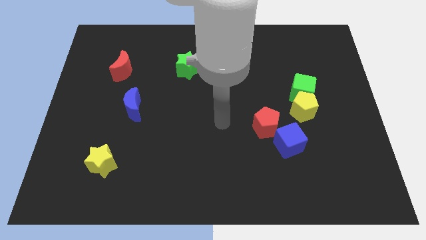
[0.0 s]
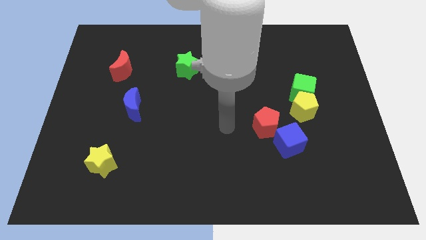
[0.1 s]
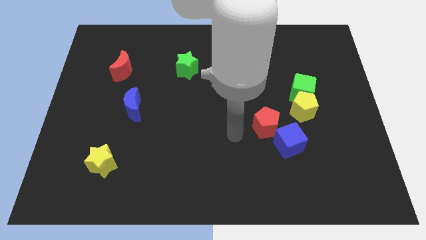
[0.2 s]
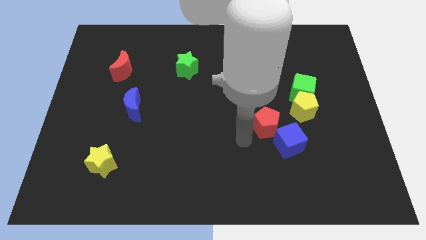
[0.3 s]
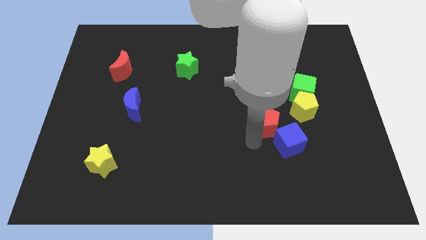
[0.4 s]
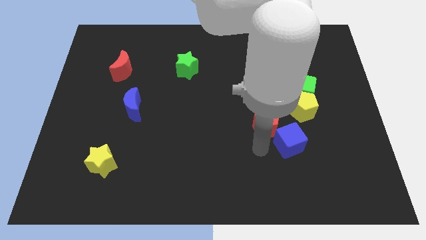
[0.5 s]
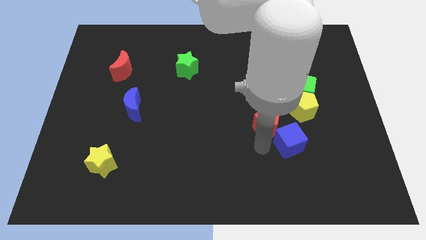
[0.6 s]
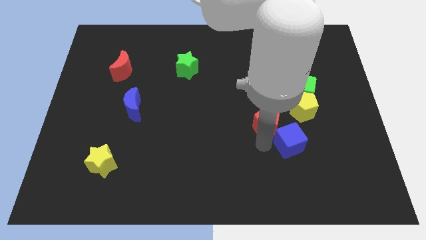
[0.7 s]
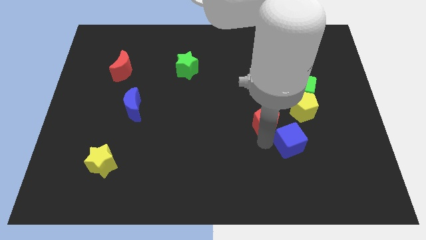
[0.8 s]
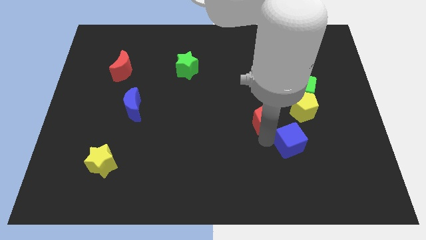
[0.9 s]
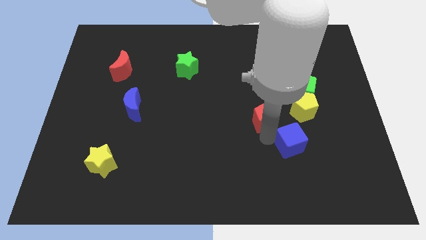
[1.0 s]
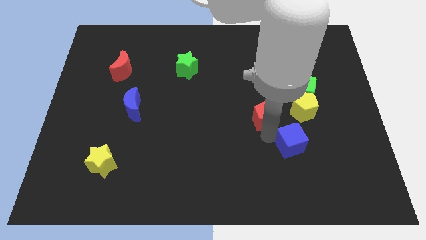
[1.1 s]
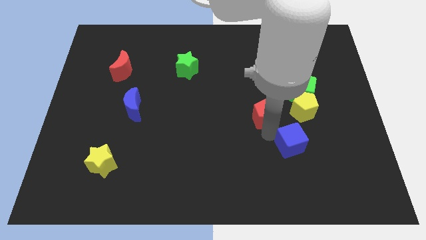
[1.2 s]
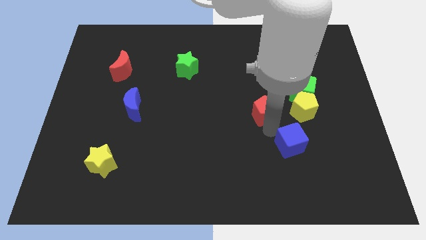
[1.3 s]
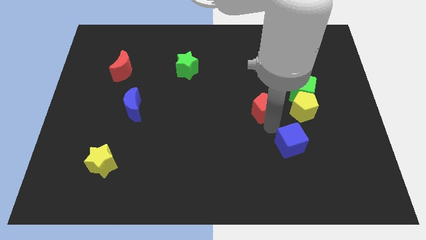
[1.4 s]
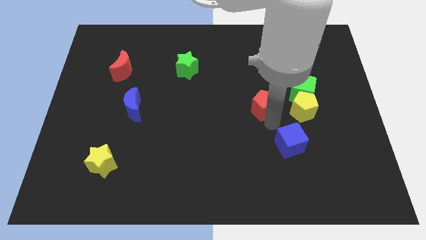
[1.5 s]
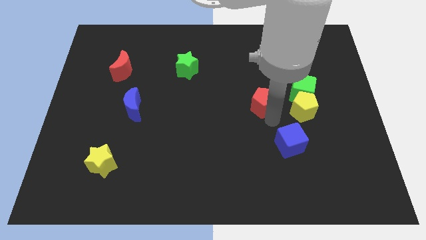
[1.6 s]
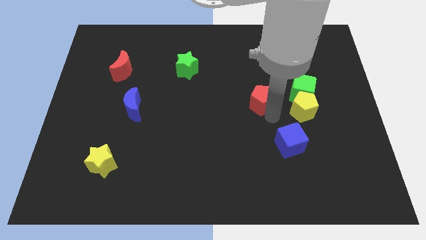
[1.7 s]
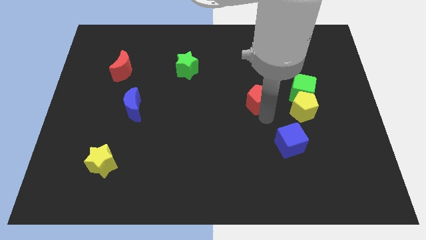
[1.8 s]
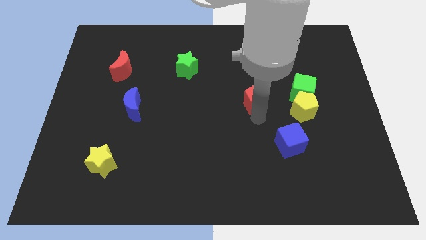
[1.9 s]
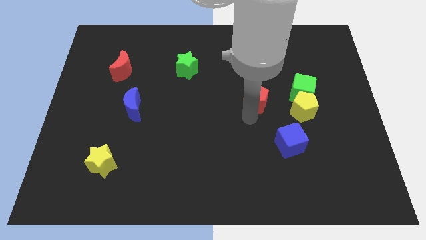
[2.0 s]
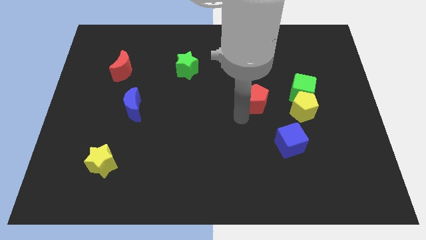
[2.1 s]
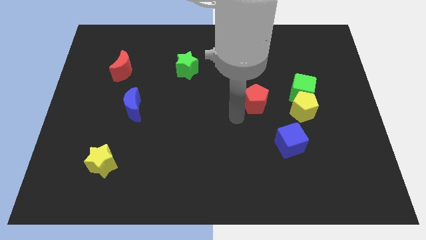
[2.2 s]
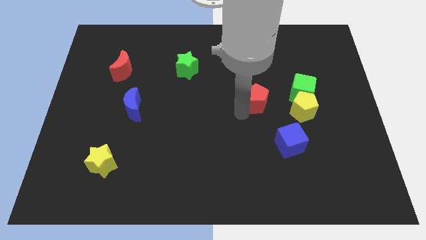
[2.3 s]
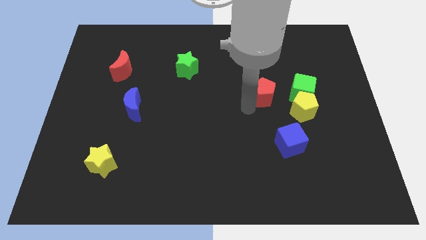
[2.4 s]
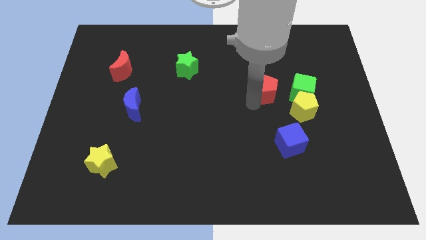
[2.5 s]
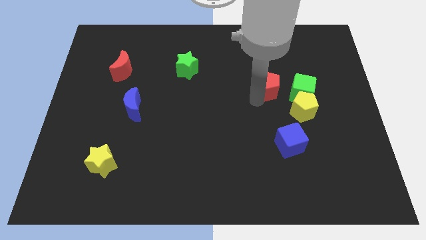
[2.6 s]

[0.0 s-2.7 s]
slide the red pentagon diagonally upwards and to the right somewhat

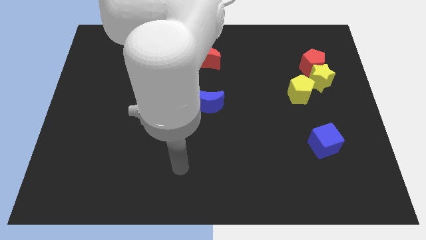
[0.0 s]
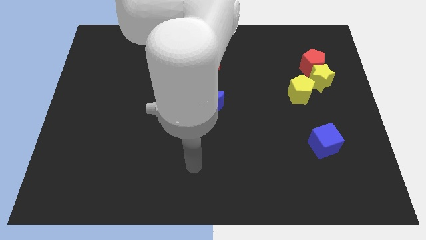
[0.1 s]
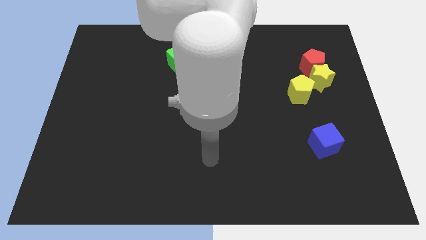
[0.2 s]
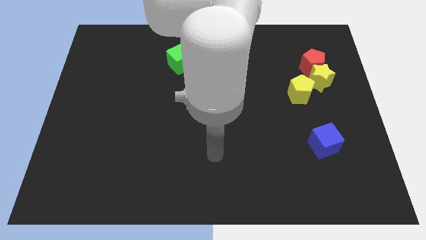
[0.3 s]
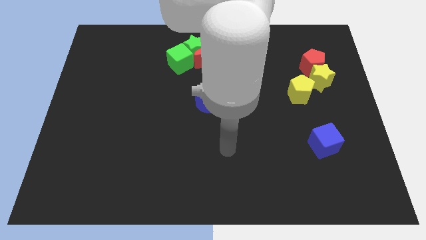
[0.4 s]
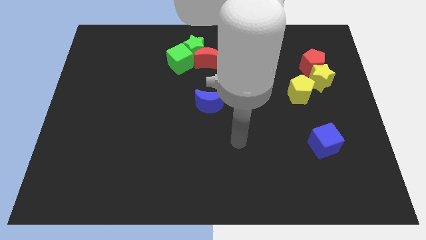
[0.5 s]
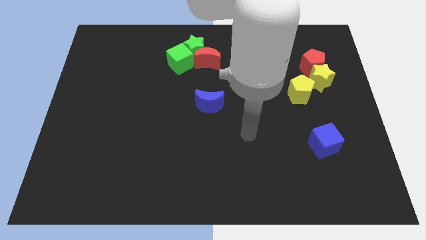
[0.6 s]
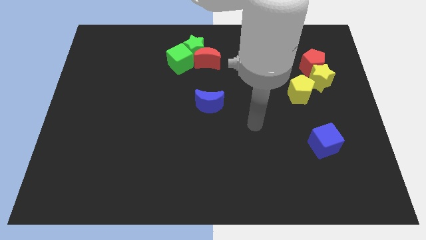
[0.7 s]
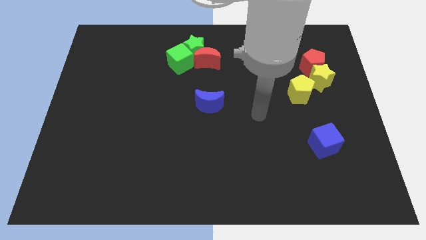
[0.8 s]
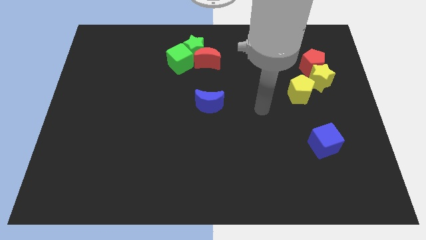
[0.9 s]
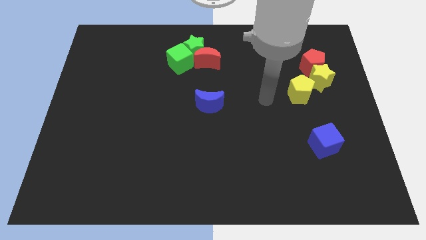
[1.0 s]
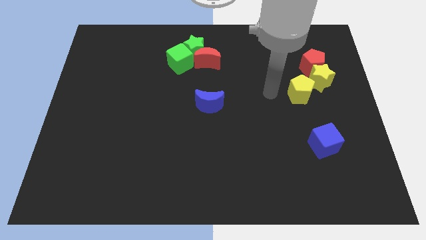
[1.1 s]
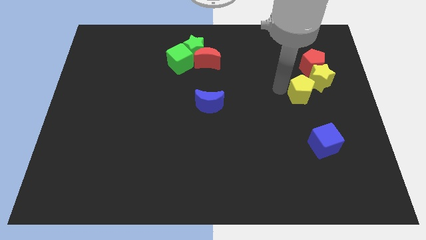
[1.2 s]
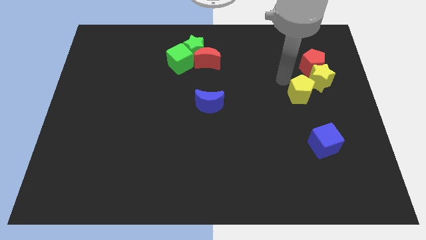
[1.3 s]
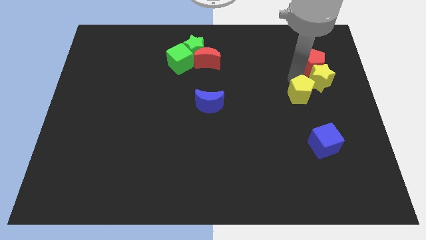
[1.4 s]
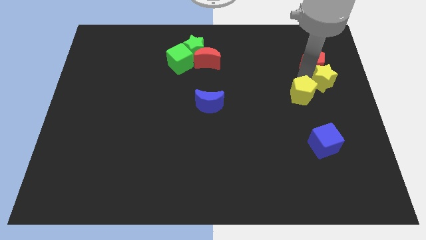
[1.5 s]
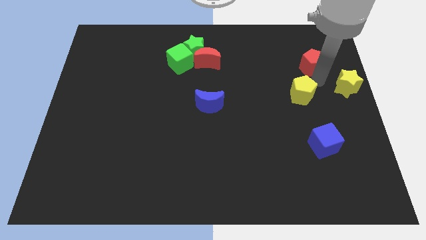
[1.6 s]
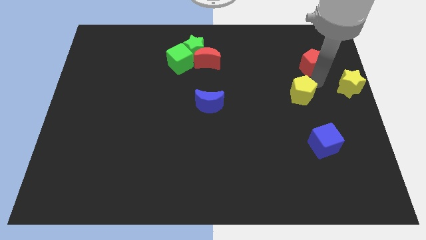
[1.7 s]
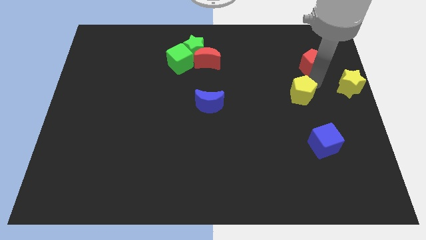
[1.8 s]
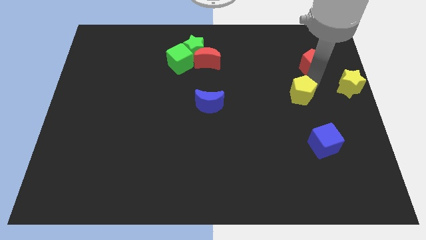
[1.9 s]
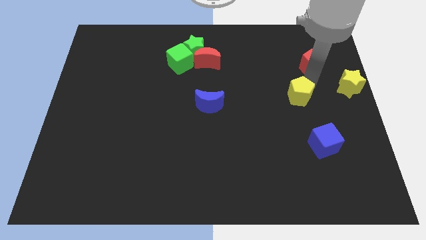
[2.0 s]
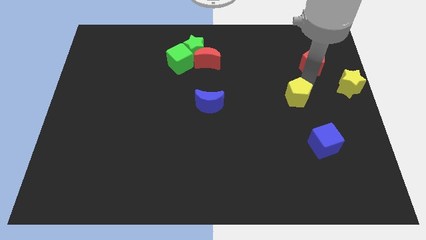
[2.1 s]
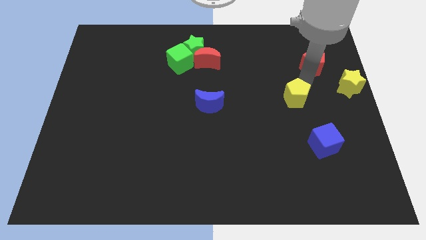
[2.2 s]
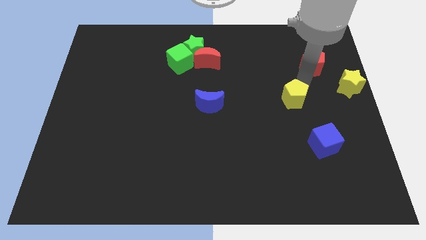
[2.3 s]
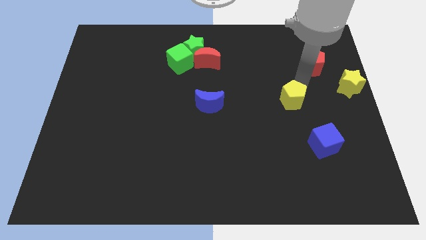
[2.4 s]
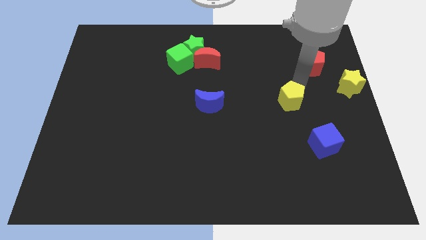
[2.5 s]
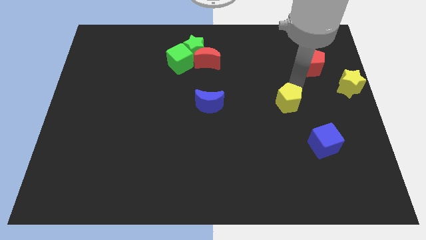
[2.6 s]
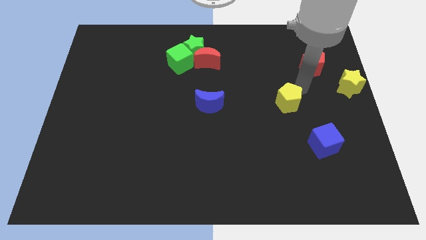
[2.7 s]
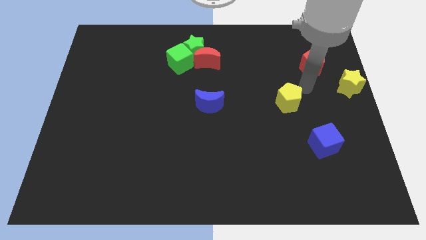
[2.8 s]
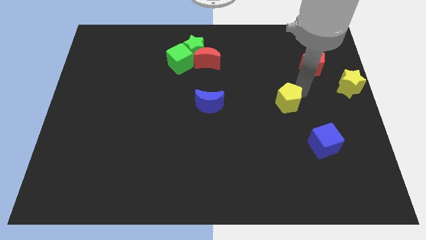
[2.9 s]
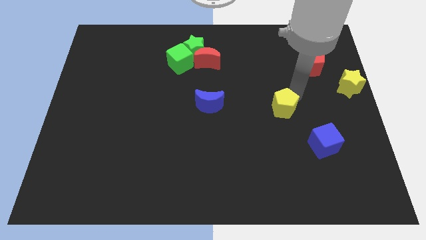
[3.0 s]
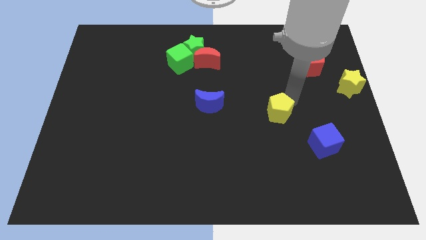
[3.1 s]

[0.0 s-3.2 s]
slide the yellow pentagon down and left slightly

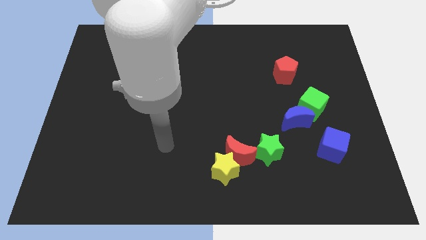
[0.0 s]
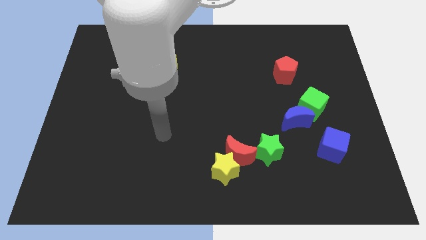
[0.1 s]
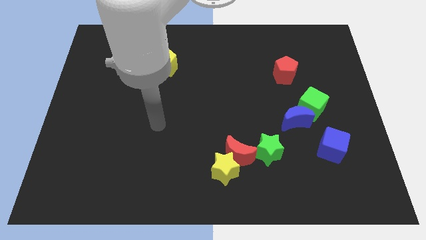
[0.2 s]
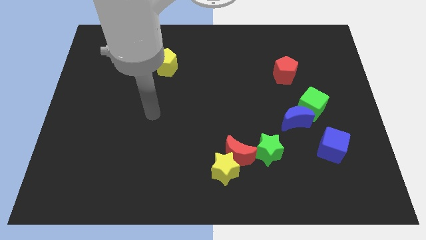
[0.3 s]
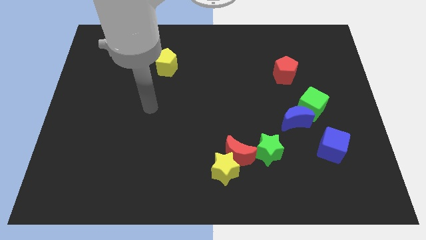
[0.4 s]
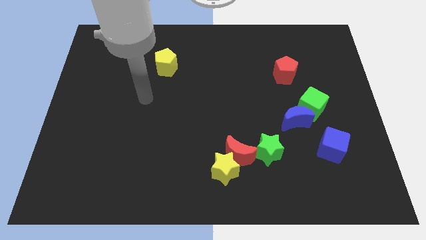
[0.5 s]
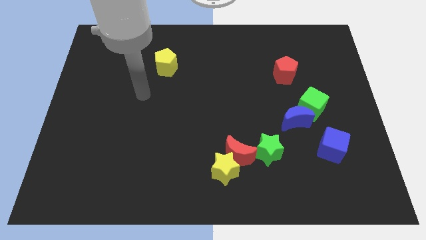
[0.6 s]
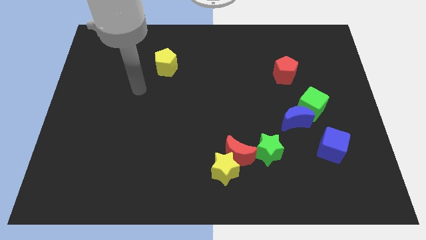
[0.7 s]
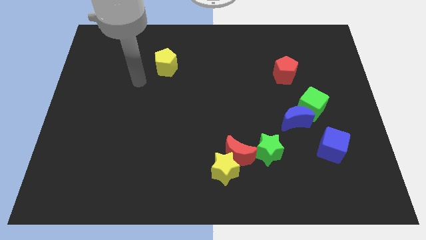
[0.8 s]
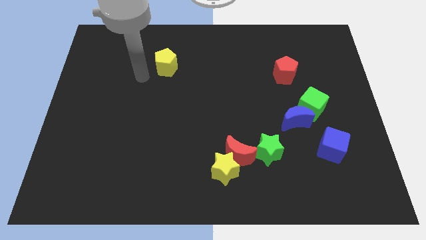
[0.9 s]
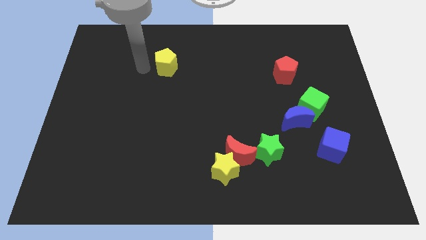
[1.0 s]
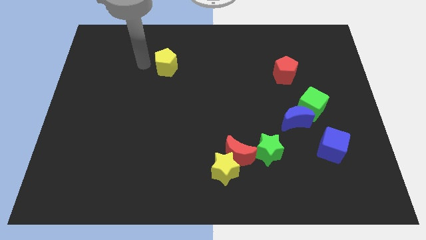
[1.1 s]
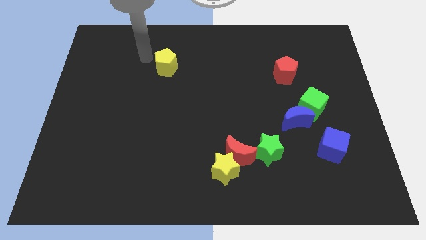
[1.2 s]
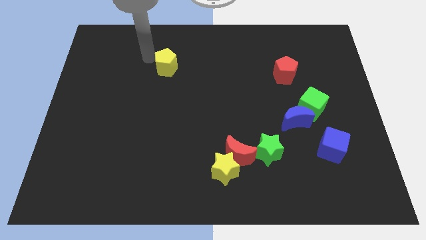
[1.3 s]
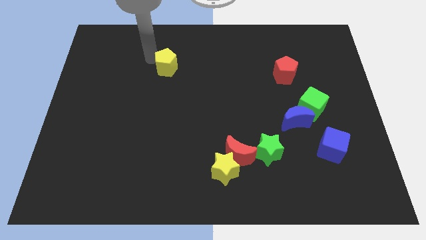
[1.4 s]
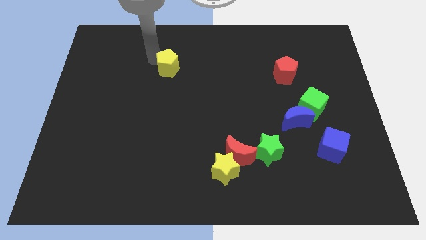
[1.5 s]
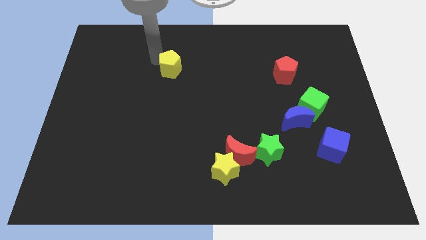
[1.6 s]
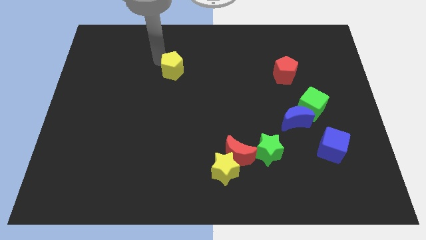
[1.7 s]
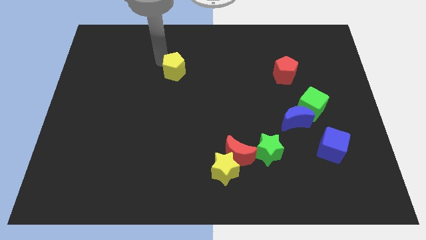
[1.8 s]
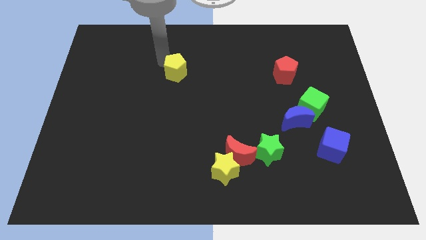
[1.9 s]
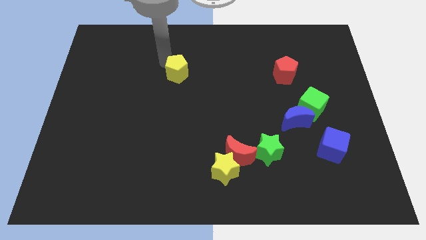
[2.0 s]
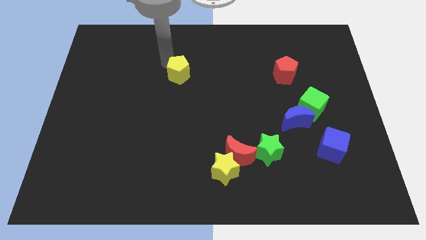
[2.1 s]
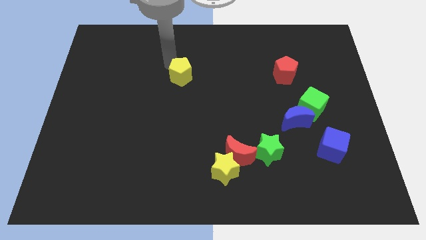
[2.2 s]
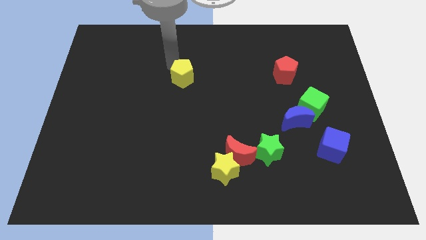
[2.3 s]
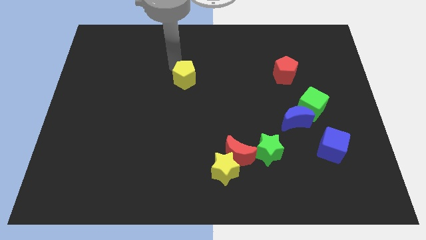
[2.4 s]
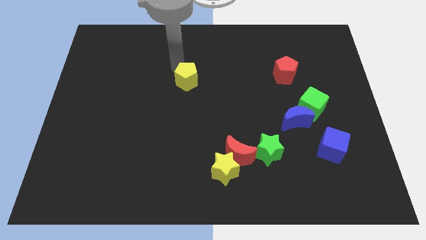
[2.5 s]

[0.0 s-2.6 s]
slide the yellow pentagon down and right diagonally somewhat
